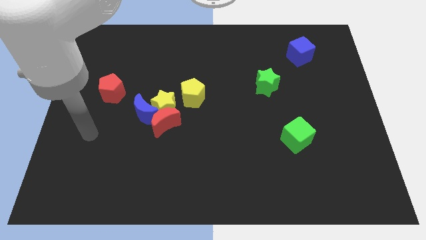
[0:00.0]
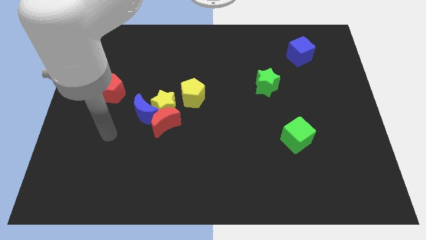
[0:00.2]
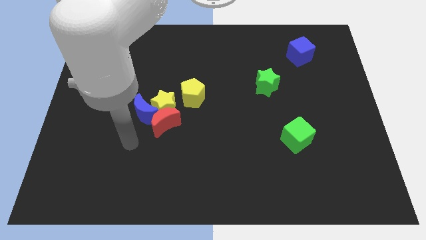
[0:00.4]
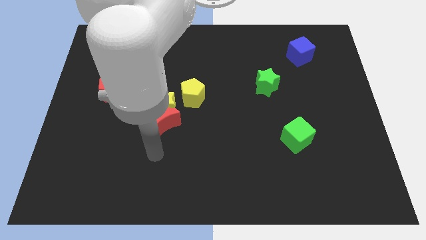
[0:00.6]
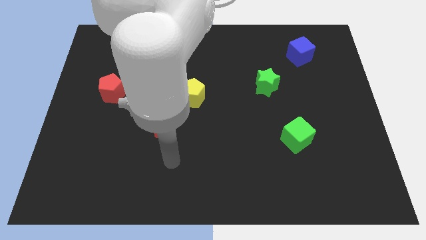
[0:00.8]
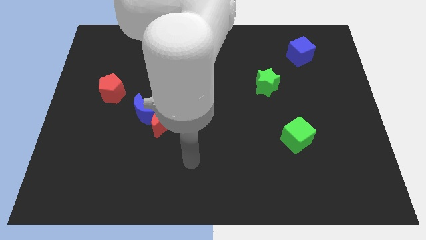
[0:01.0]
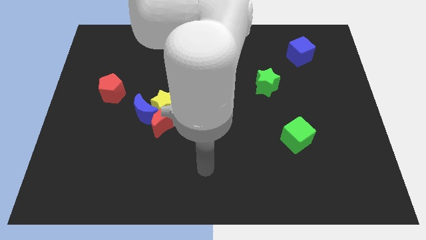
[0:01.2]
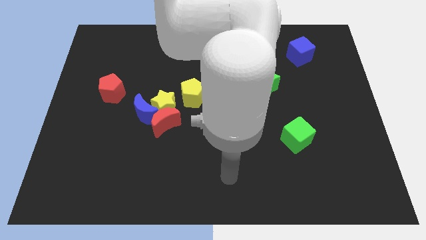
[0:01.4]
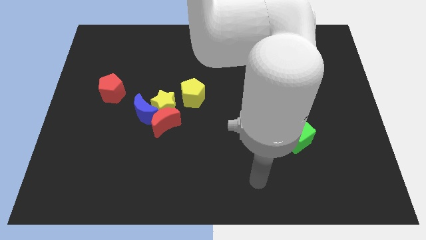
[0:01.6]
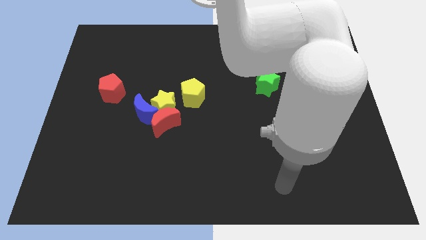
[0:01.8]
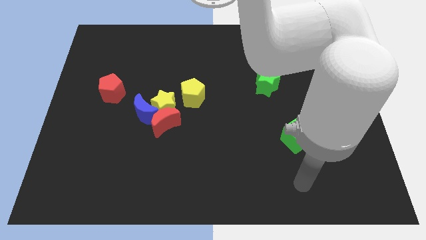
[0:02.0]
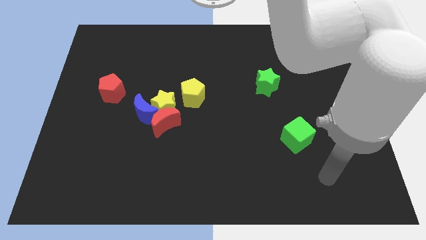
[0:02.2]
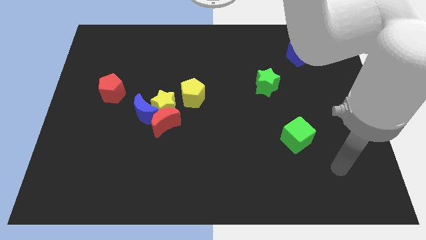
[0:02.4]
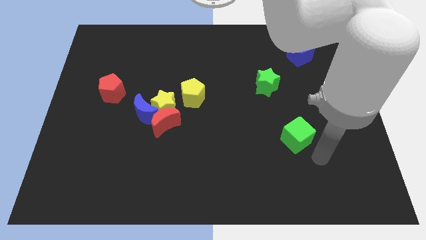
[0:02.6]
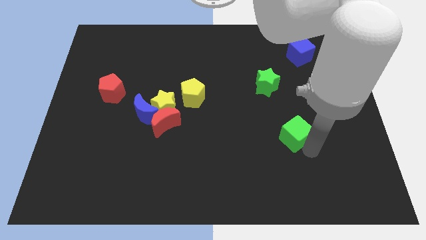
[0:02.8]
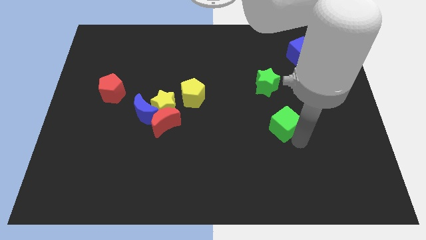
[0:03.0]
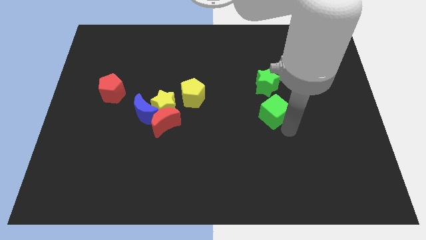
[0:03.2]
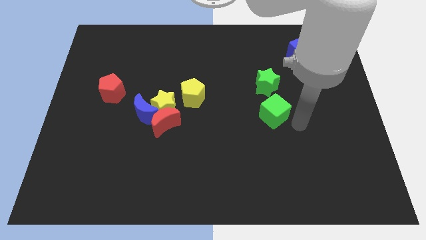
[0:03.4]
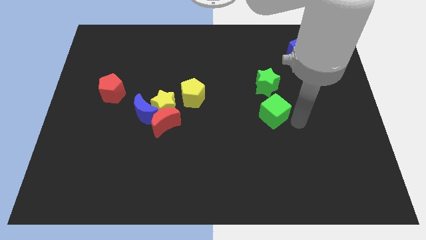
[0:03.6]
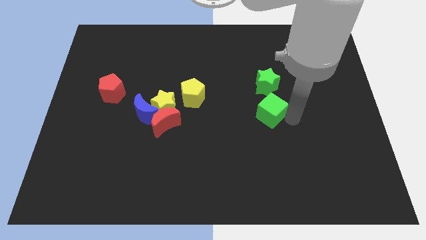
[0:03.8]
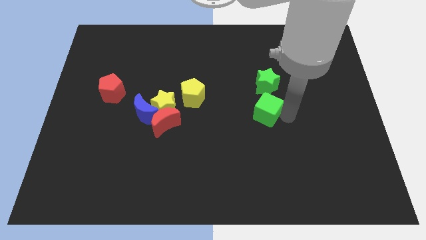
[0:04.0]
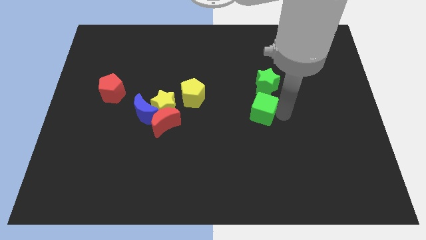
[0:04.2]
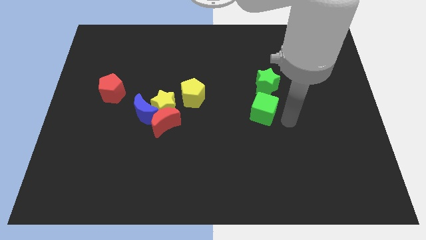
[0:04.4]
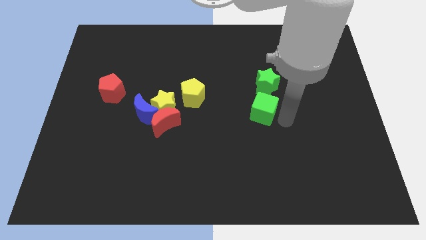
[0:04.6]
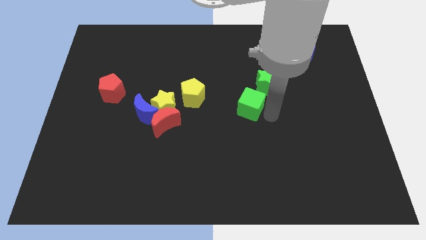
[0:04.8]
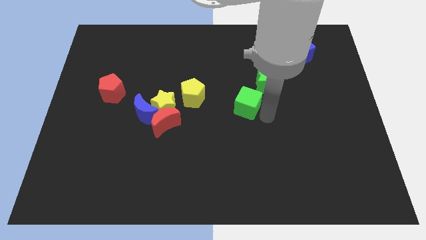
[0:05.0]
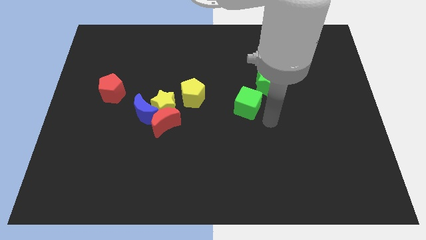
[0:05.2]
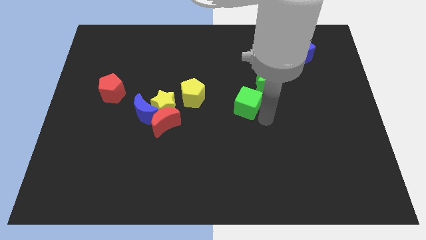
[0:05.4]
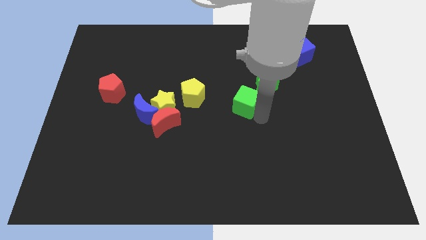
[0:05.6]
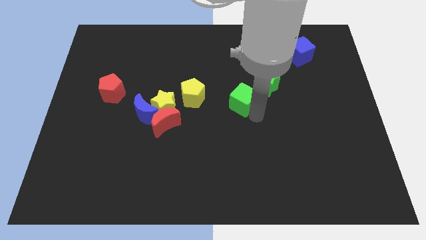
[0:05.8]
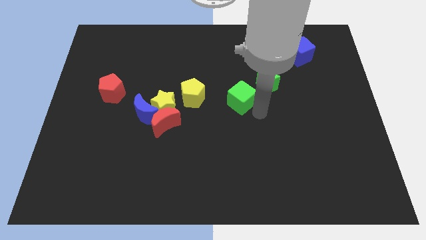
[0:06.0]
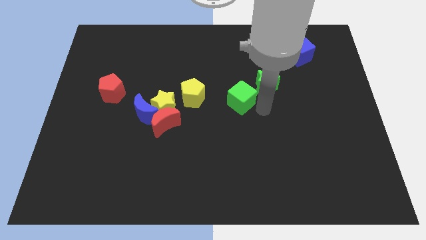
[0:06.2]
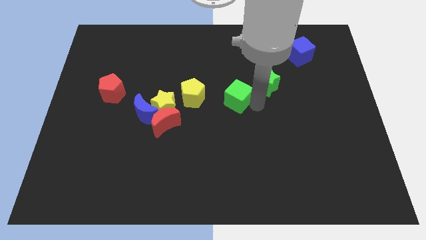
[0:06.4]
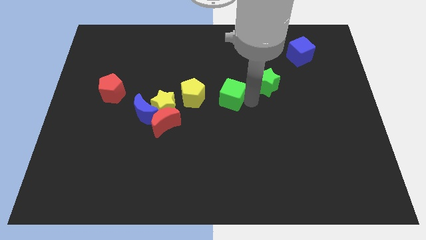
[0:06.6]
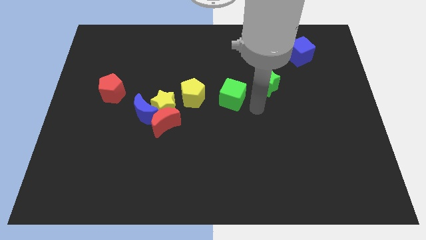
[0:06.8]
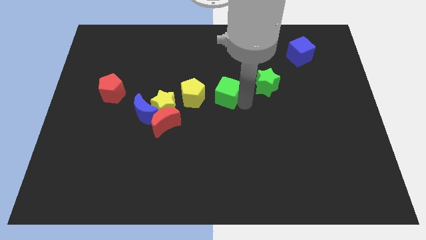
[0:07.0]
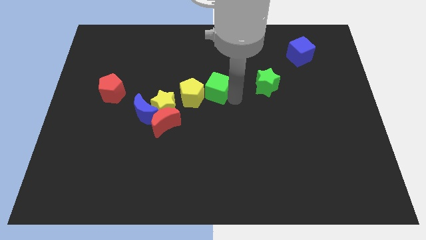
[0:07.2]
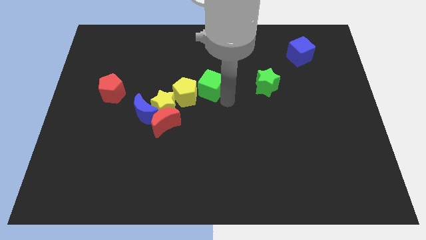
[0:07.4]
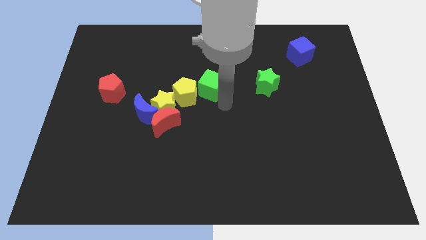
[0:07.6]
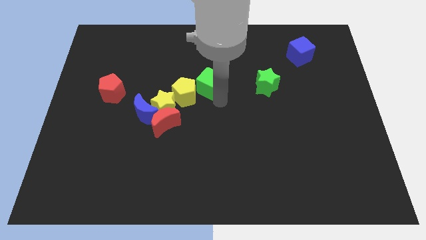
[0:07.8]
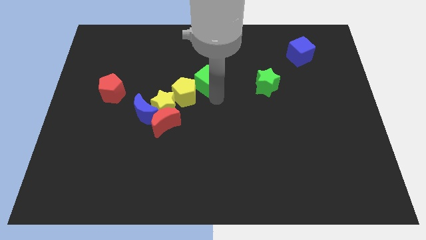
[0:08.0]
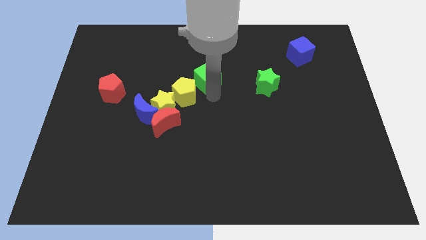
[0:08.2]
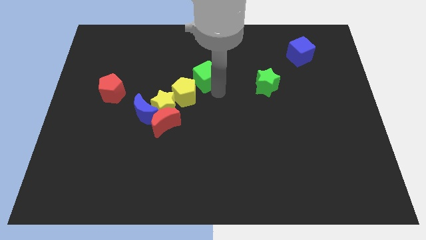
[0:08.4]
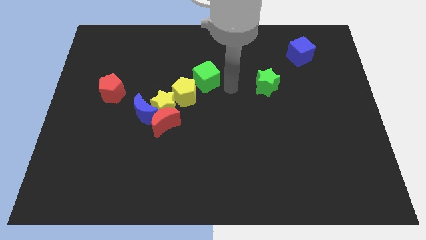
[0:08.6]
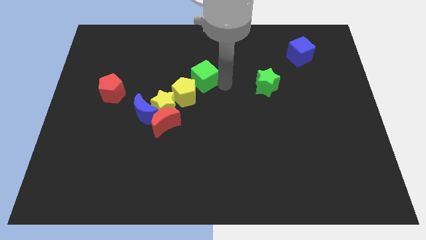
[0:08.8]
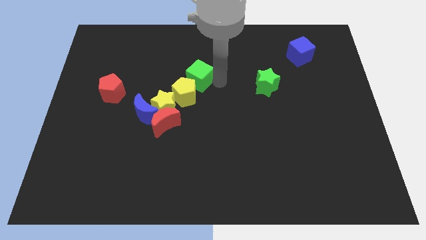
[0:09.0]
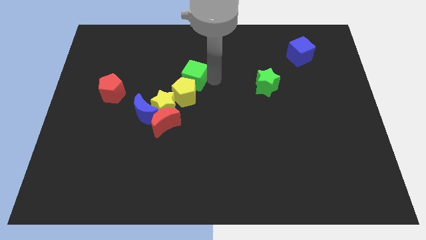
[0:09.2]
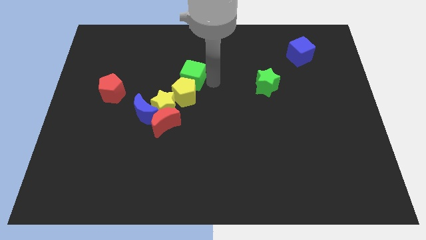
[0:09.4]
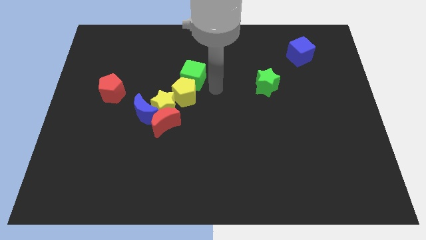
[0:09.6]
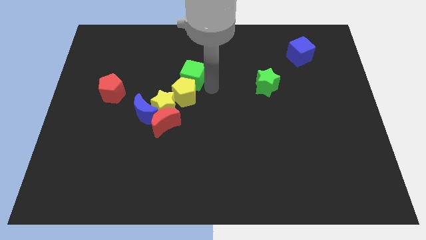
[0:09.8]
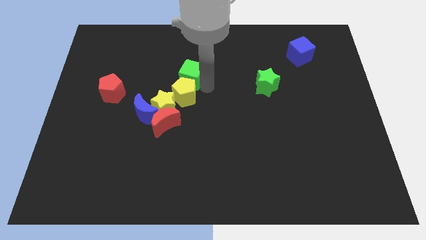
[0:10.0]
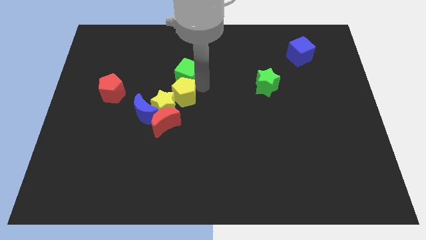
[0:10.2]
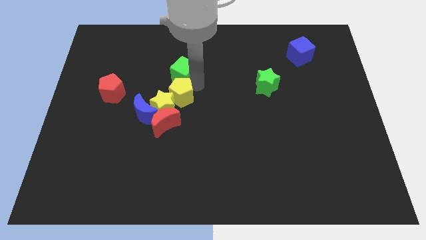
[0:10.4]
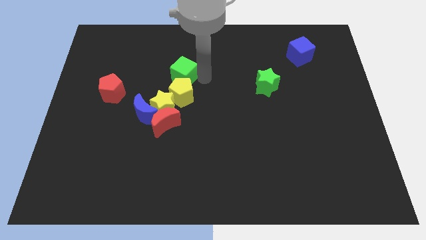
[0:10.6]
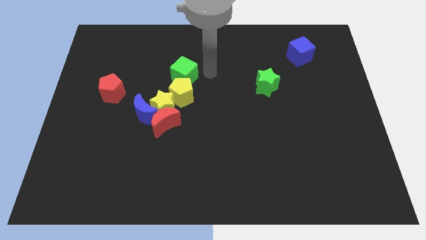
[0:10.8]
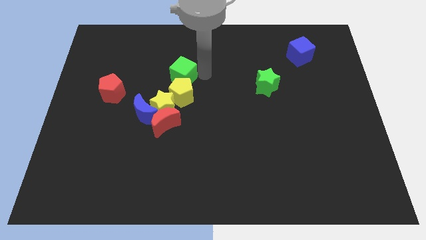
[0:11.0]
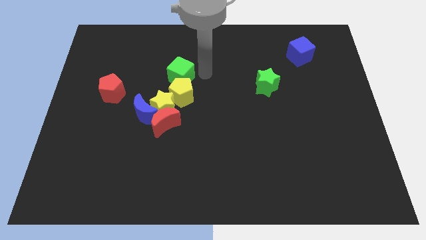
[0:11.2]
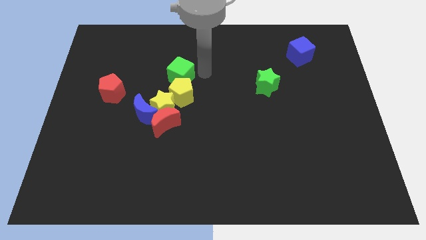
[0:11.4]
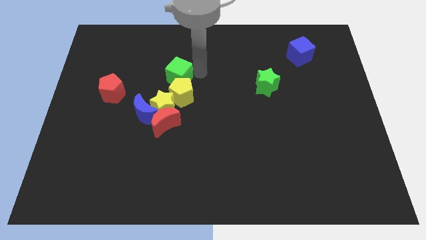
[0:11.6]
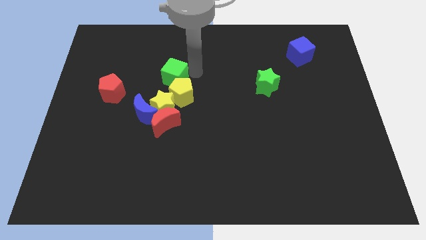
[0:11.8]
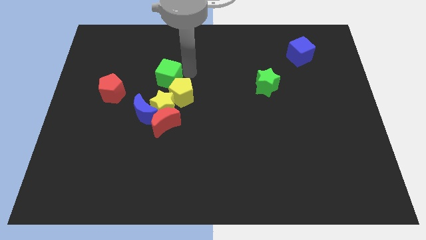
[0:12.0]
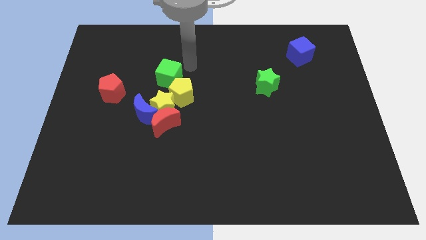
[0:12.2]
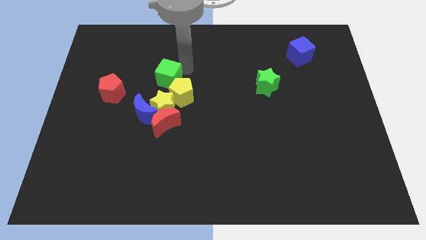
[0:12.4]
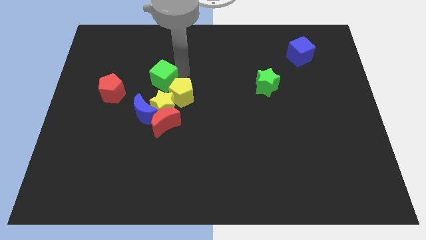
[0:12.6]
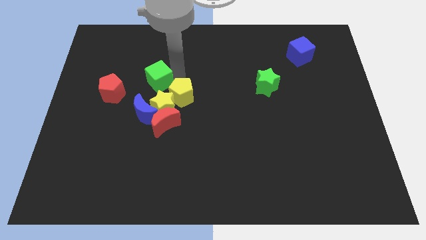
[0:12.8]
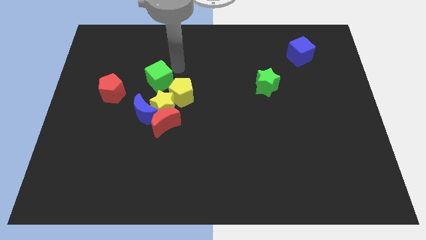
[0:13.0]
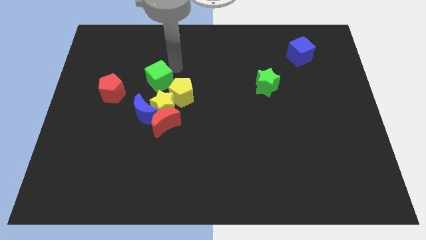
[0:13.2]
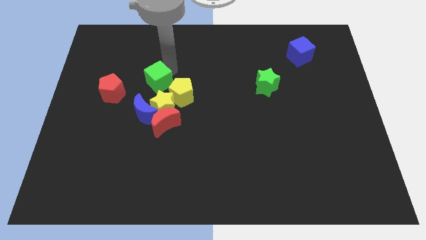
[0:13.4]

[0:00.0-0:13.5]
move the green cube to the top left side of the yellow star

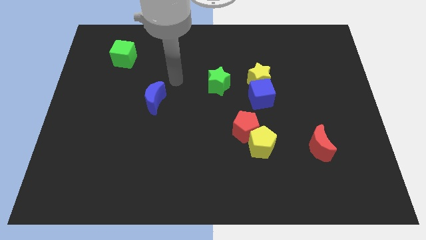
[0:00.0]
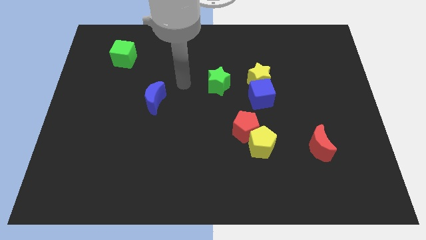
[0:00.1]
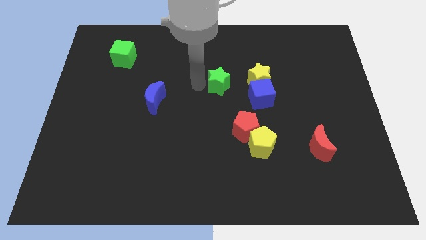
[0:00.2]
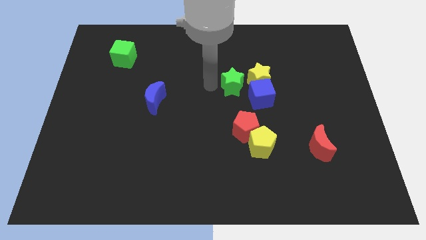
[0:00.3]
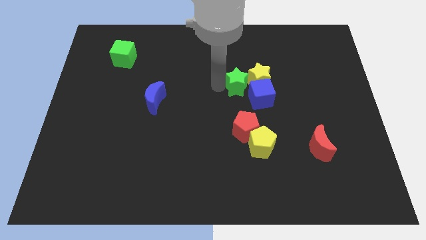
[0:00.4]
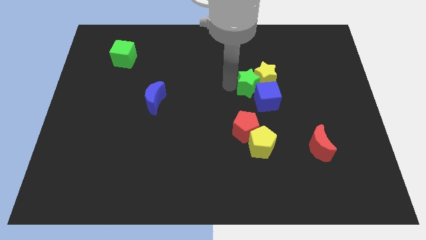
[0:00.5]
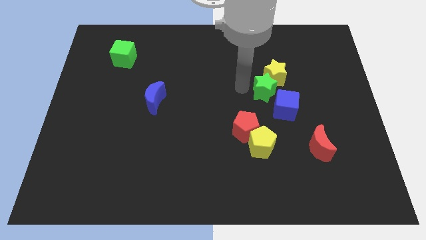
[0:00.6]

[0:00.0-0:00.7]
slide the blue cube diagonally up and to the left of the red moon

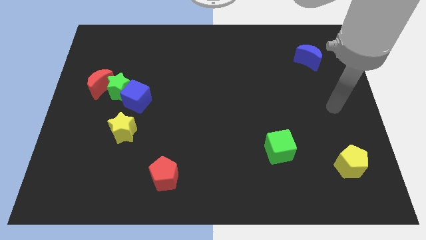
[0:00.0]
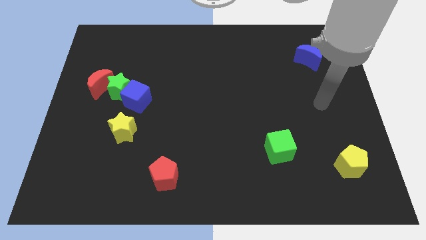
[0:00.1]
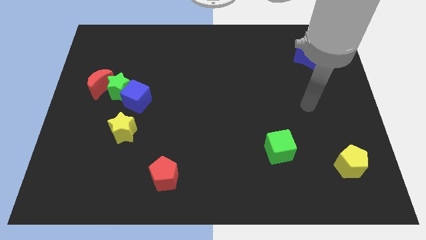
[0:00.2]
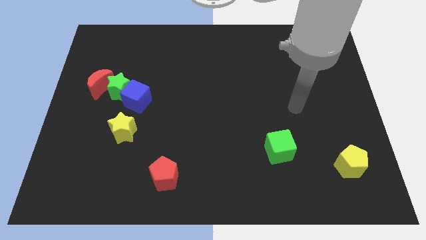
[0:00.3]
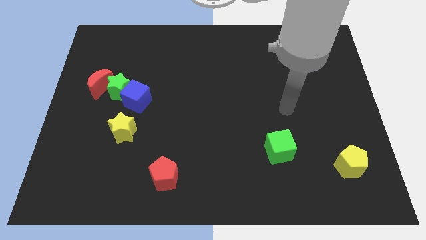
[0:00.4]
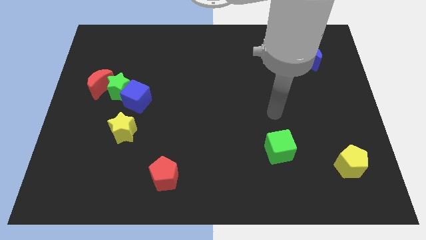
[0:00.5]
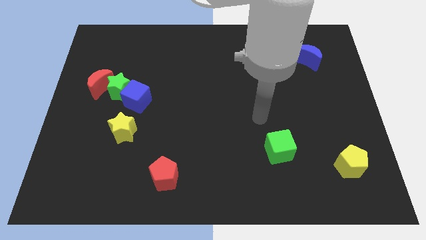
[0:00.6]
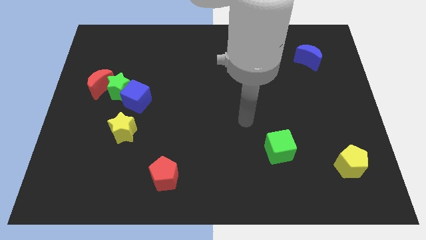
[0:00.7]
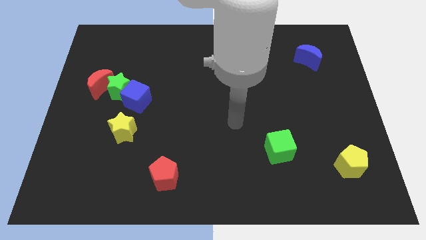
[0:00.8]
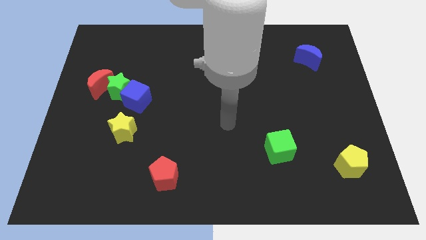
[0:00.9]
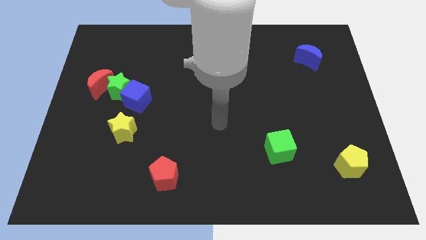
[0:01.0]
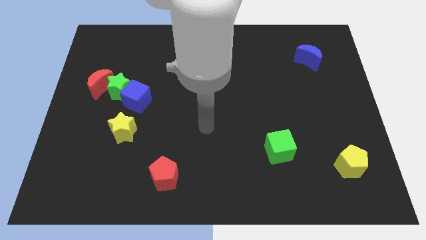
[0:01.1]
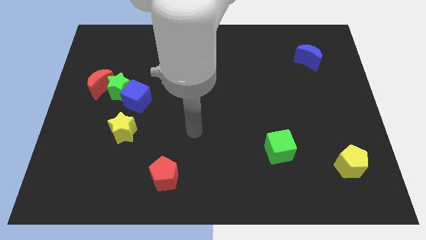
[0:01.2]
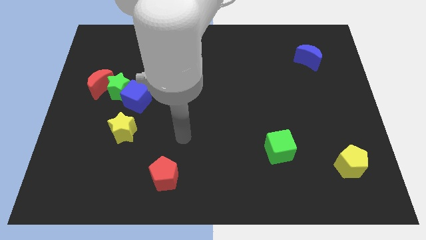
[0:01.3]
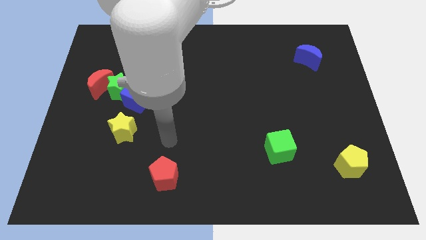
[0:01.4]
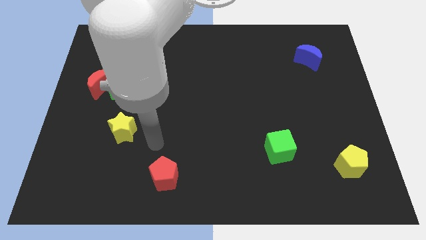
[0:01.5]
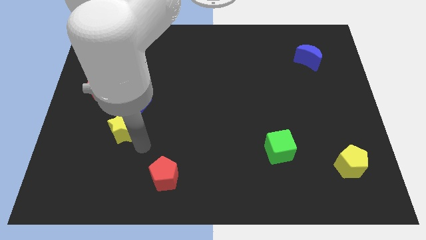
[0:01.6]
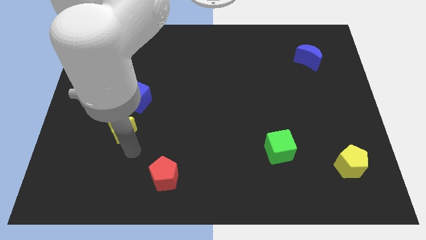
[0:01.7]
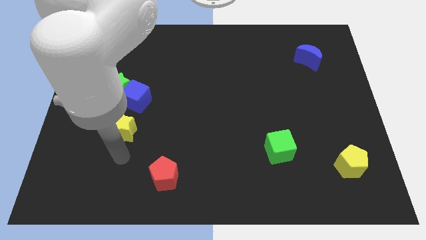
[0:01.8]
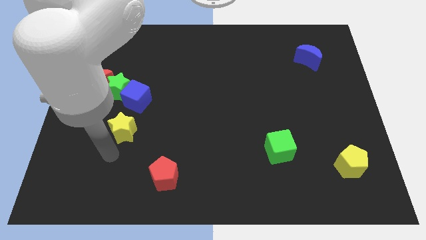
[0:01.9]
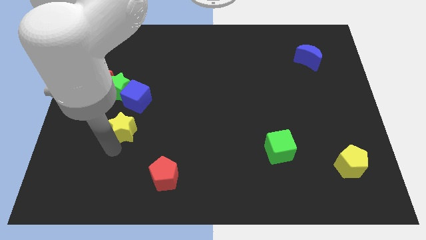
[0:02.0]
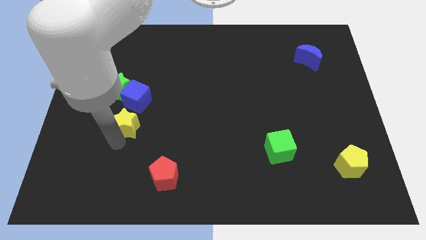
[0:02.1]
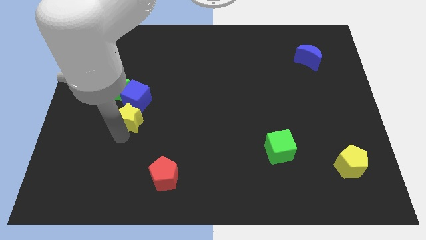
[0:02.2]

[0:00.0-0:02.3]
put the yellow star diagonally down and to the right of the green star
